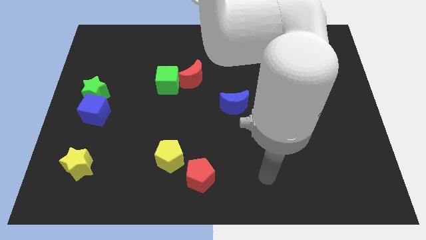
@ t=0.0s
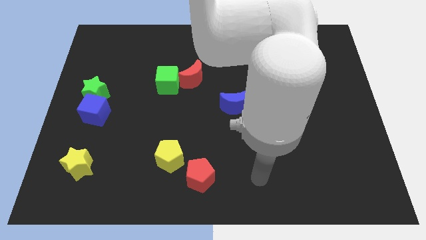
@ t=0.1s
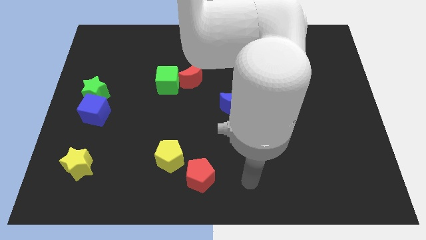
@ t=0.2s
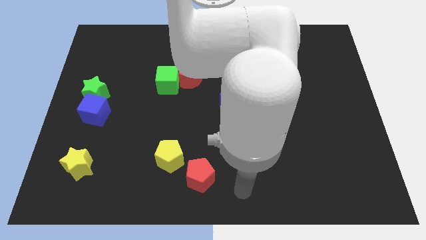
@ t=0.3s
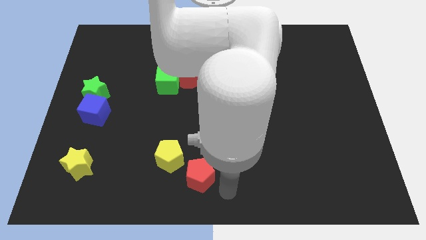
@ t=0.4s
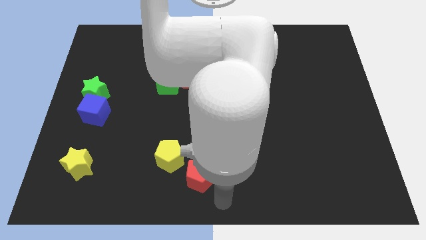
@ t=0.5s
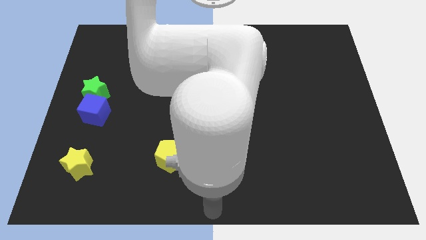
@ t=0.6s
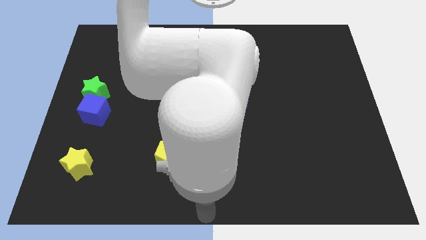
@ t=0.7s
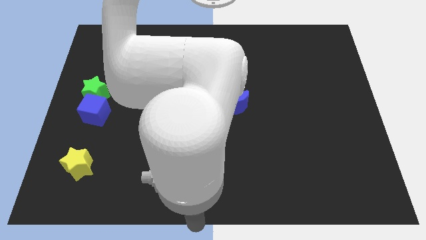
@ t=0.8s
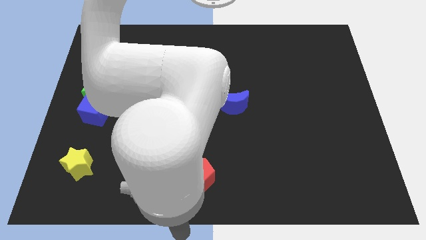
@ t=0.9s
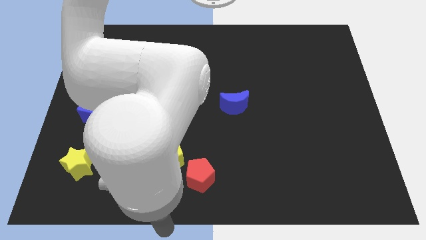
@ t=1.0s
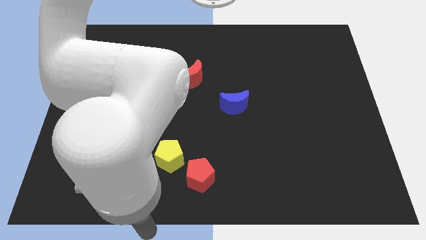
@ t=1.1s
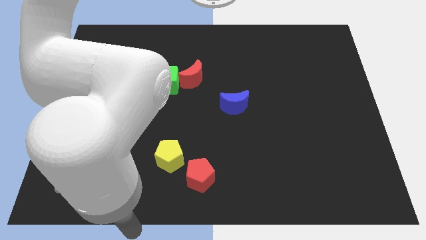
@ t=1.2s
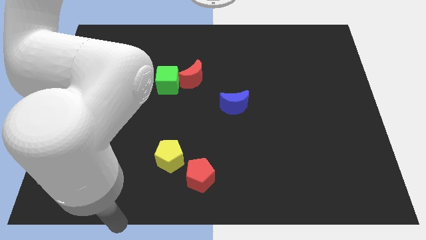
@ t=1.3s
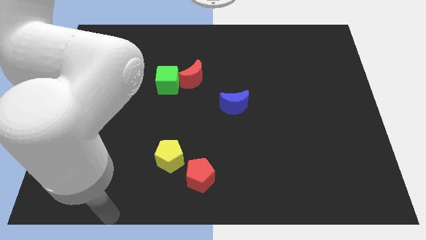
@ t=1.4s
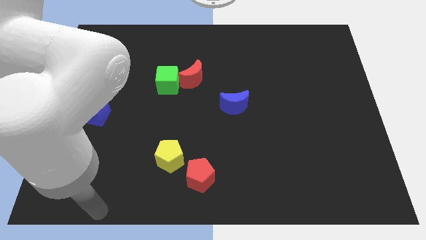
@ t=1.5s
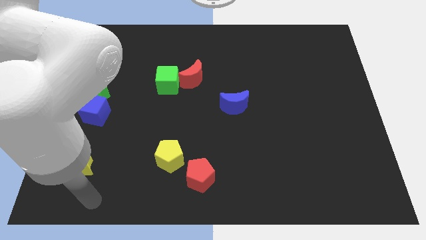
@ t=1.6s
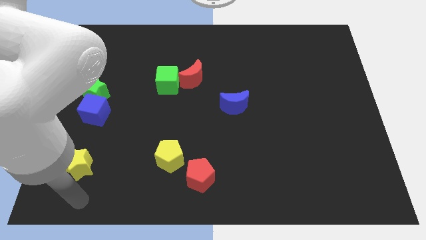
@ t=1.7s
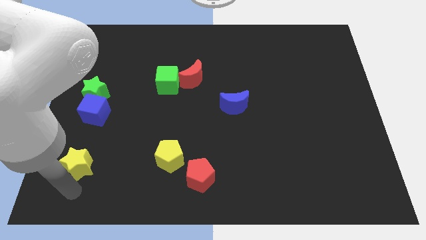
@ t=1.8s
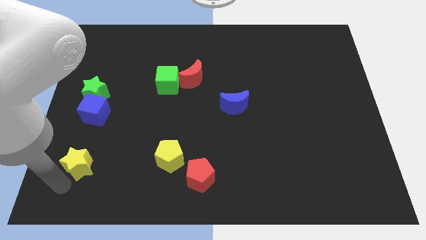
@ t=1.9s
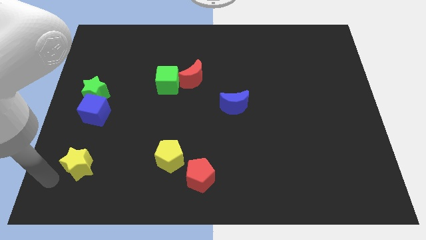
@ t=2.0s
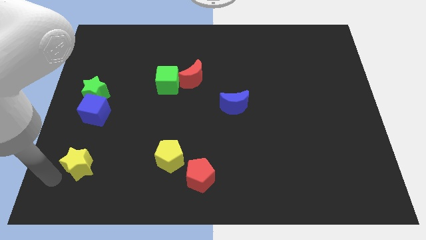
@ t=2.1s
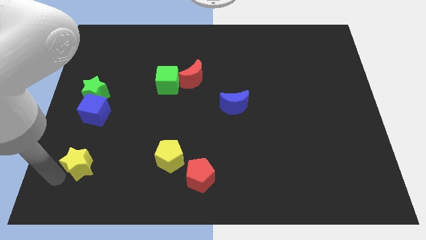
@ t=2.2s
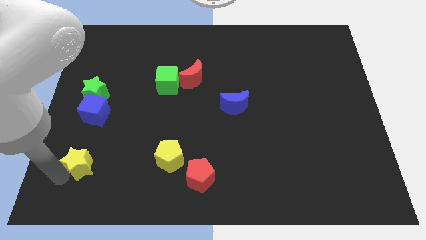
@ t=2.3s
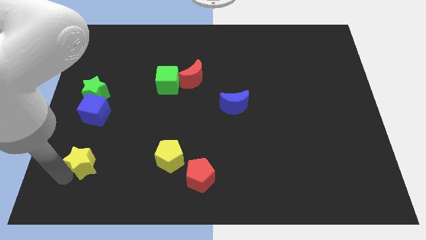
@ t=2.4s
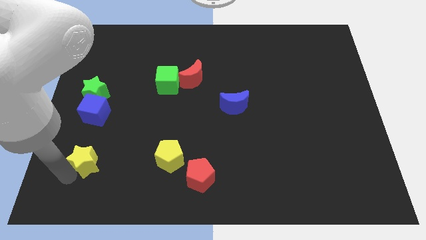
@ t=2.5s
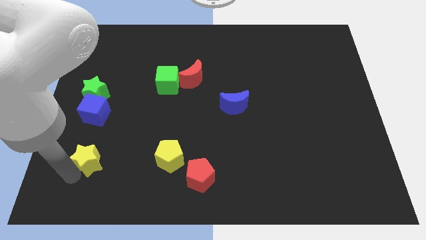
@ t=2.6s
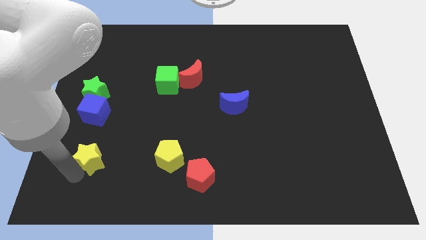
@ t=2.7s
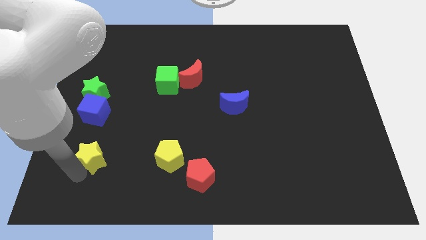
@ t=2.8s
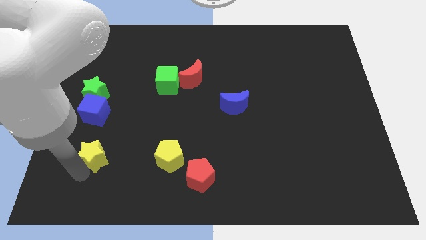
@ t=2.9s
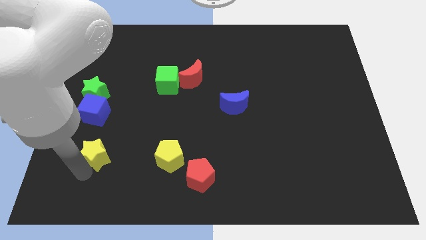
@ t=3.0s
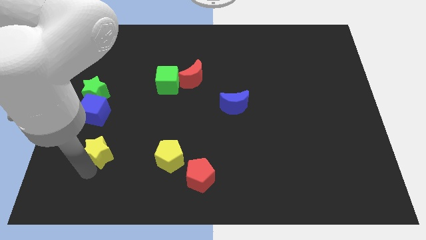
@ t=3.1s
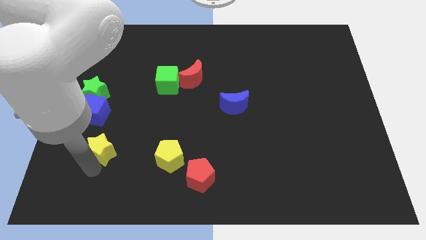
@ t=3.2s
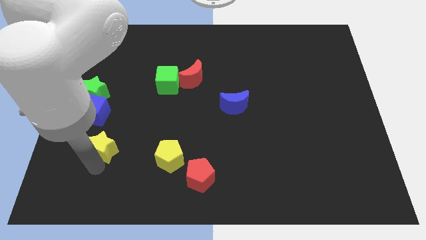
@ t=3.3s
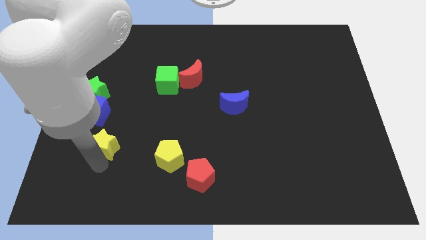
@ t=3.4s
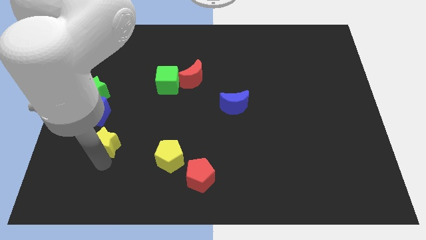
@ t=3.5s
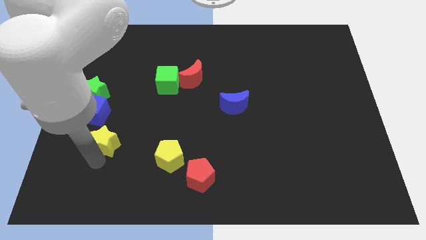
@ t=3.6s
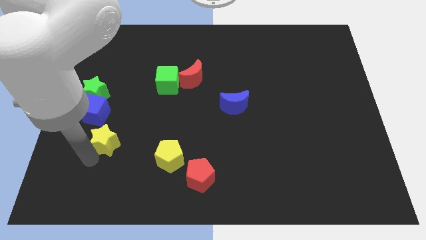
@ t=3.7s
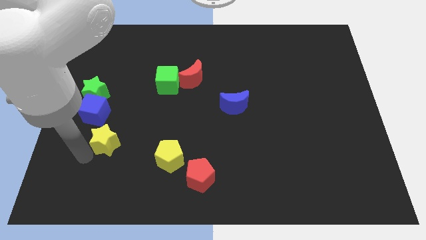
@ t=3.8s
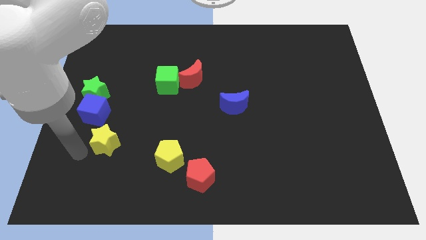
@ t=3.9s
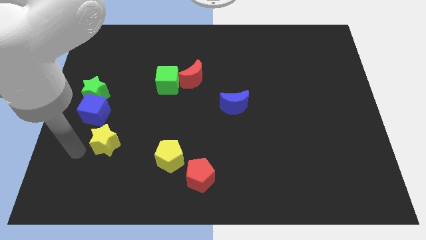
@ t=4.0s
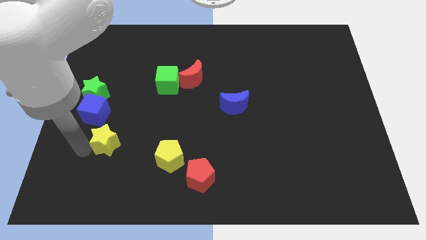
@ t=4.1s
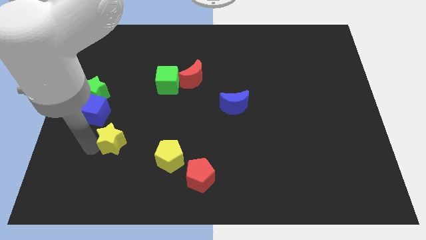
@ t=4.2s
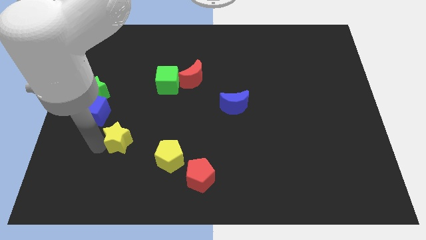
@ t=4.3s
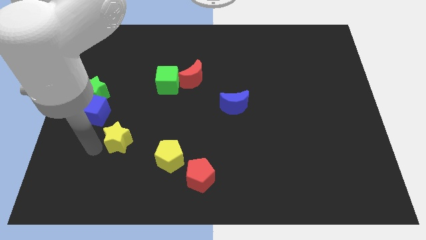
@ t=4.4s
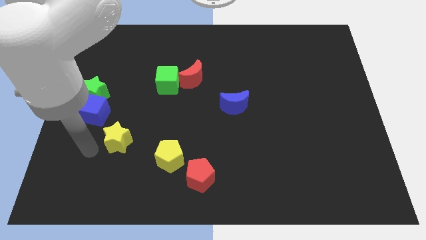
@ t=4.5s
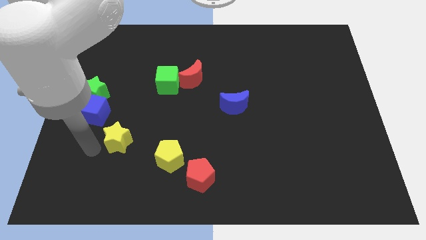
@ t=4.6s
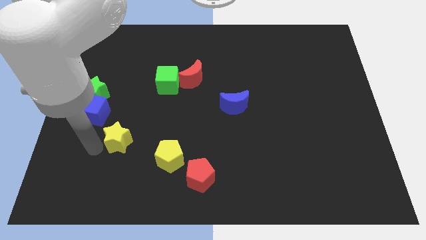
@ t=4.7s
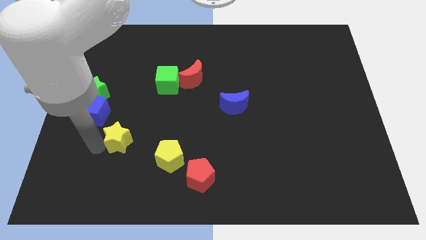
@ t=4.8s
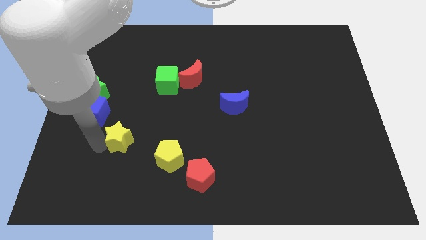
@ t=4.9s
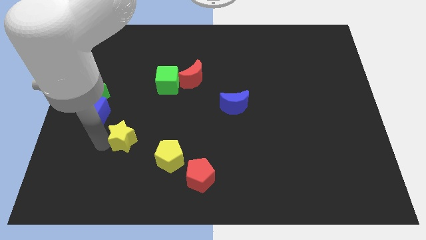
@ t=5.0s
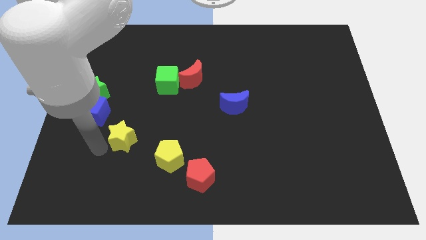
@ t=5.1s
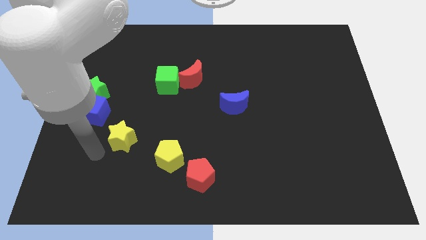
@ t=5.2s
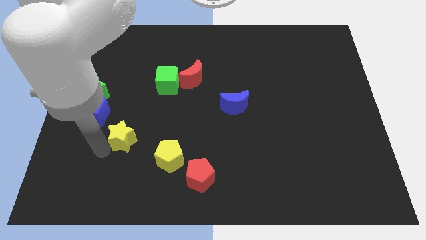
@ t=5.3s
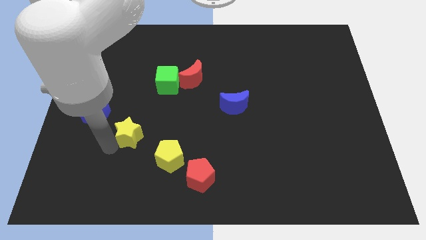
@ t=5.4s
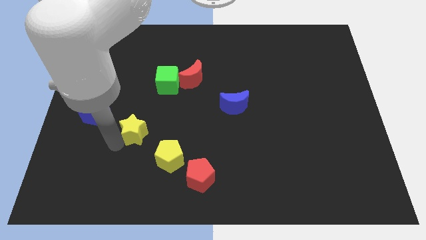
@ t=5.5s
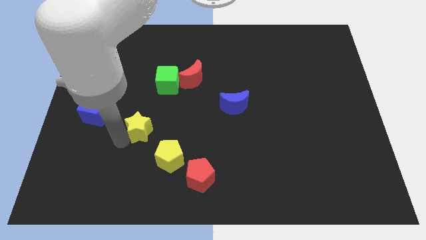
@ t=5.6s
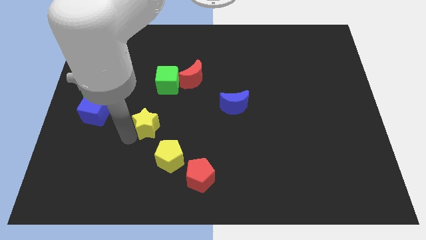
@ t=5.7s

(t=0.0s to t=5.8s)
push the yellow star to the bottom of the green cube

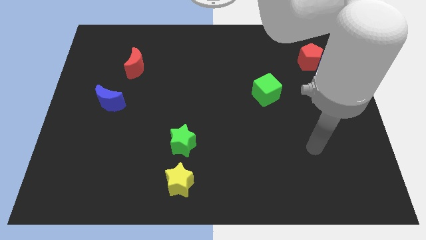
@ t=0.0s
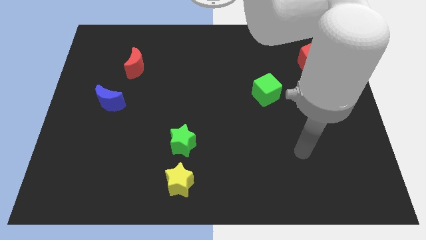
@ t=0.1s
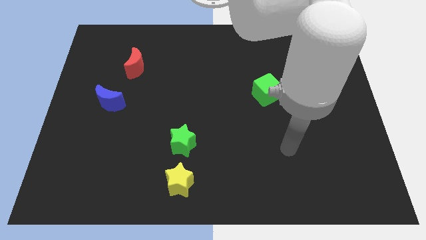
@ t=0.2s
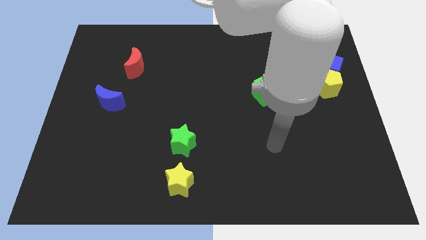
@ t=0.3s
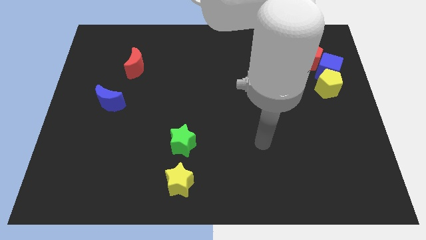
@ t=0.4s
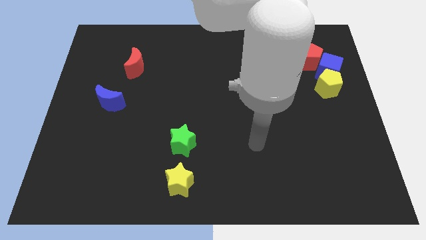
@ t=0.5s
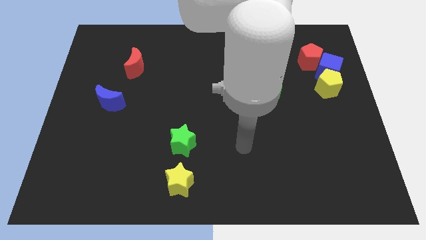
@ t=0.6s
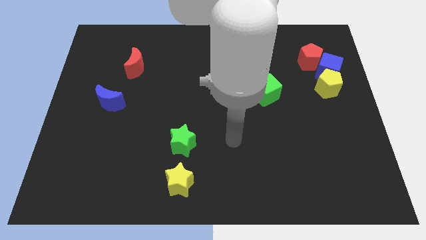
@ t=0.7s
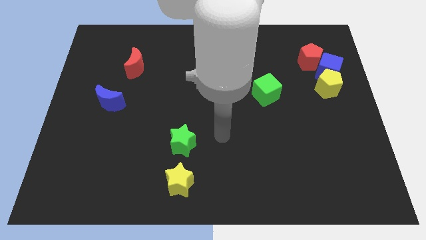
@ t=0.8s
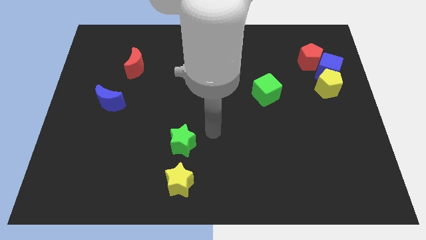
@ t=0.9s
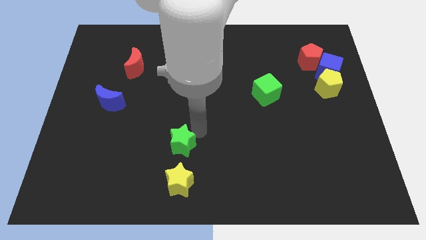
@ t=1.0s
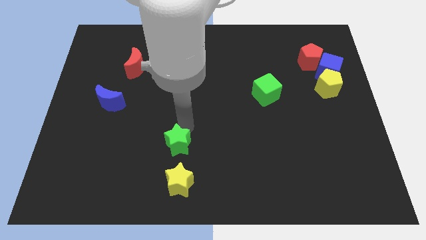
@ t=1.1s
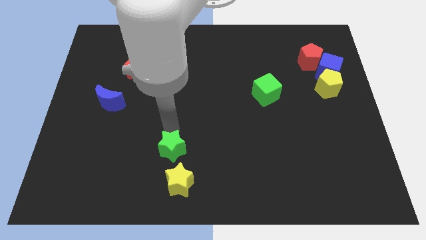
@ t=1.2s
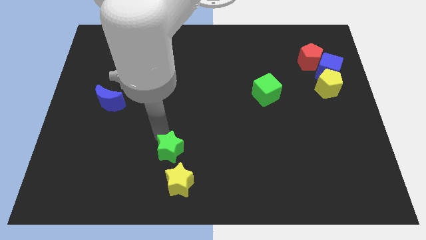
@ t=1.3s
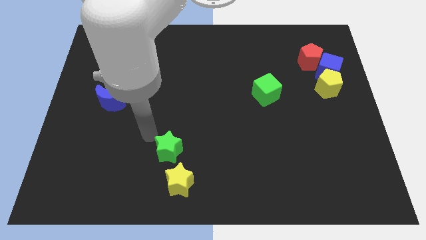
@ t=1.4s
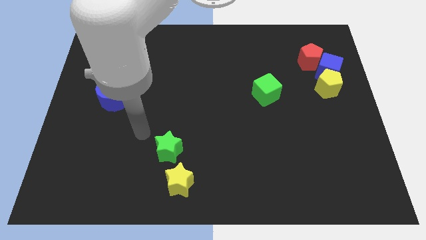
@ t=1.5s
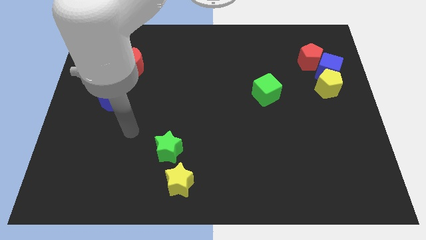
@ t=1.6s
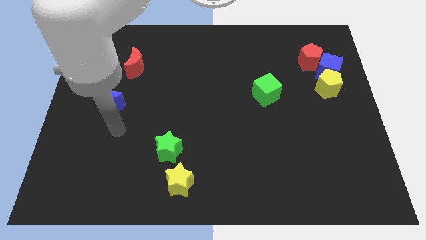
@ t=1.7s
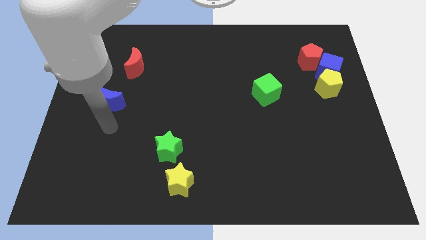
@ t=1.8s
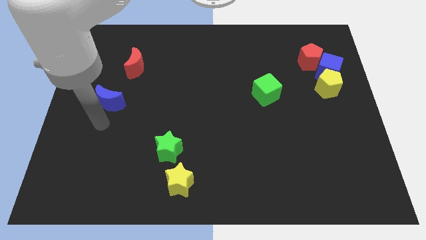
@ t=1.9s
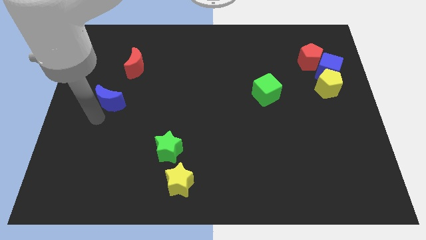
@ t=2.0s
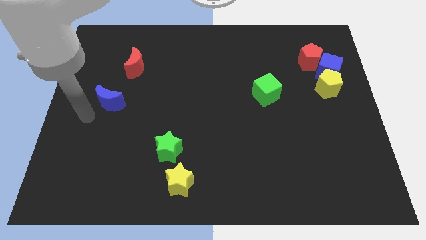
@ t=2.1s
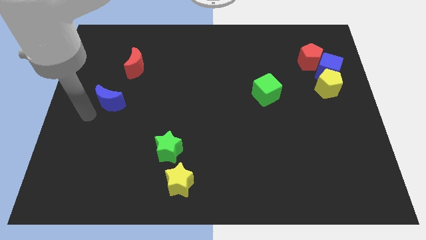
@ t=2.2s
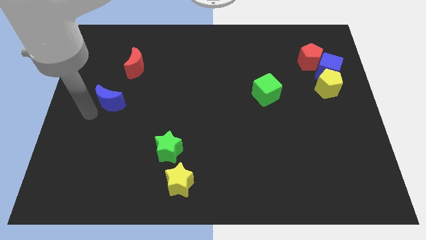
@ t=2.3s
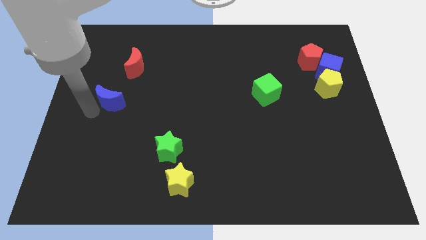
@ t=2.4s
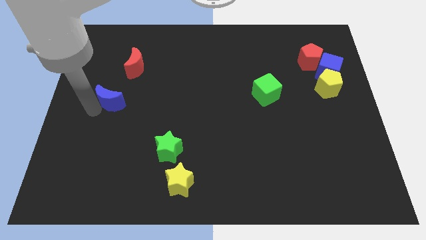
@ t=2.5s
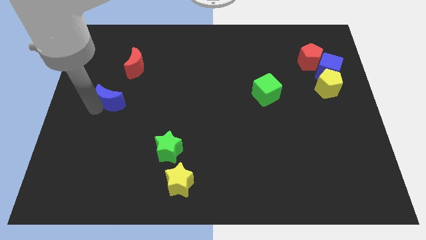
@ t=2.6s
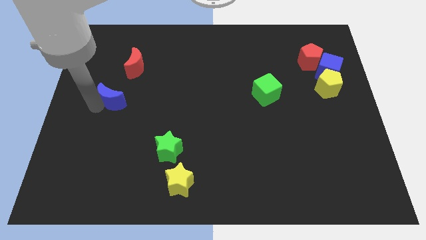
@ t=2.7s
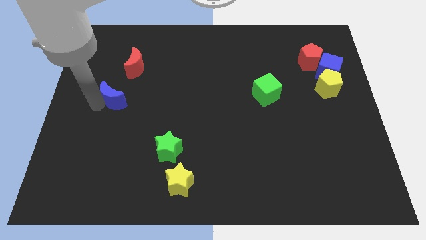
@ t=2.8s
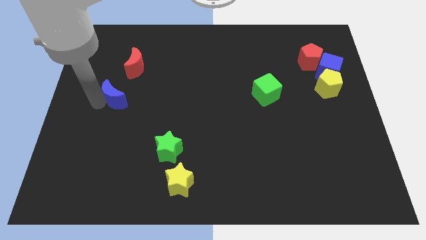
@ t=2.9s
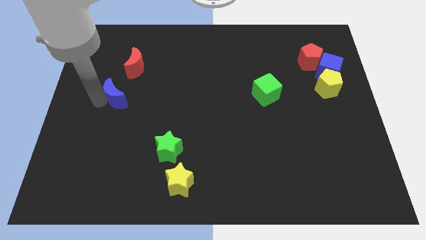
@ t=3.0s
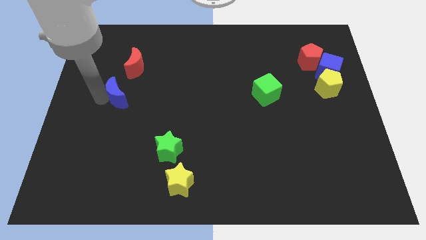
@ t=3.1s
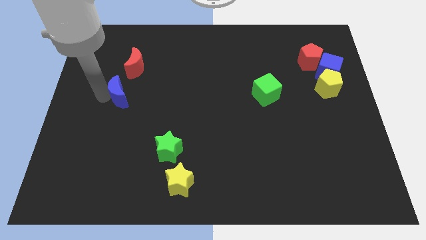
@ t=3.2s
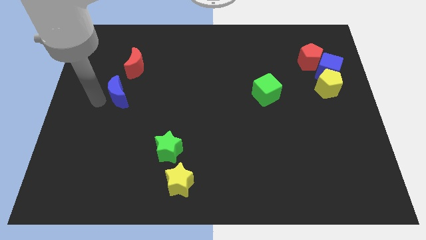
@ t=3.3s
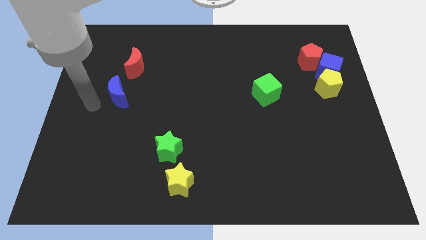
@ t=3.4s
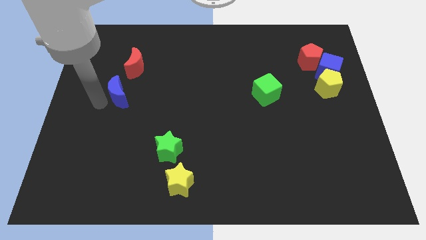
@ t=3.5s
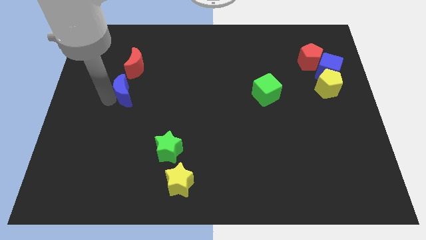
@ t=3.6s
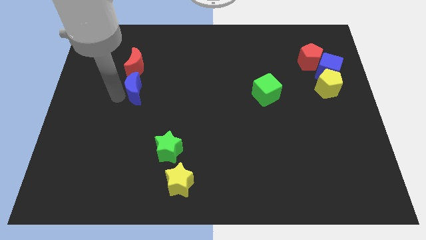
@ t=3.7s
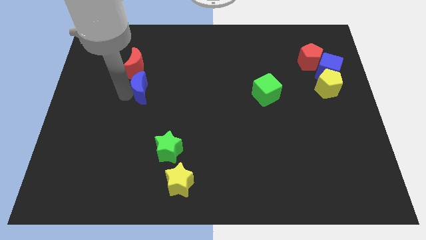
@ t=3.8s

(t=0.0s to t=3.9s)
move the blue moon diagonally down and to the right of the red moon
